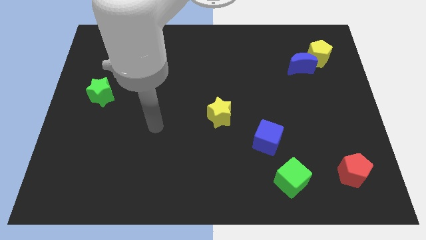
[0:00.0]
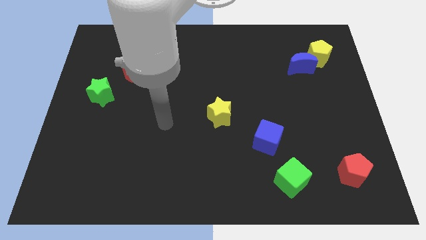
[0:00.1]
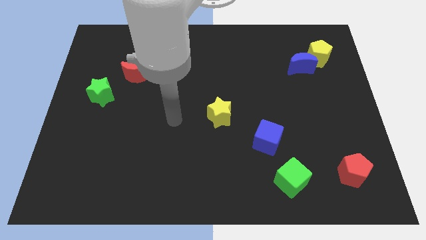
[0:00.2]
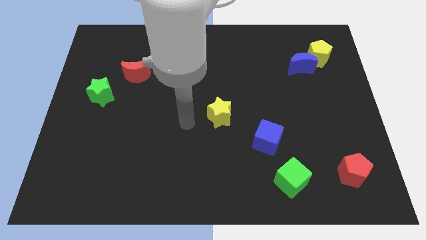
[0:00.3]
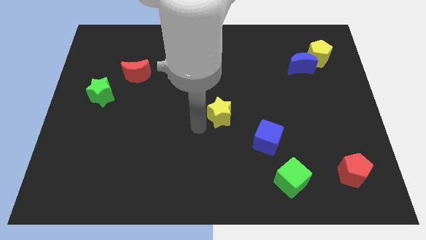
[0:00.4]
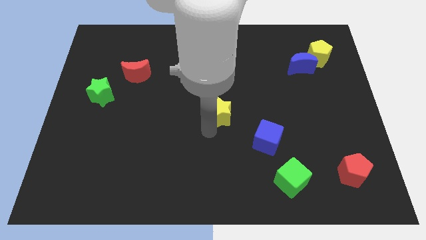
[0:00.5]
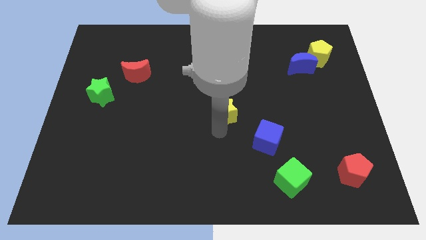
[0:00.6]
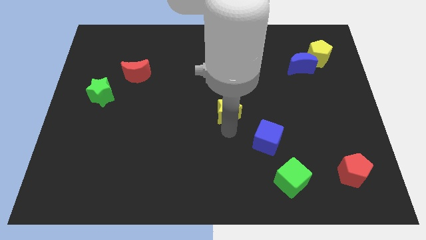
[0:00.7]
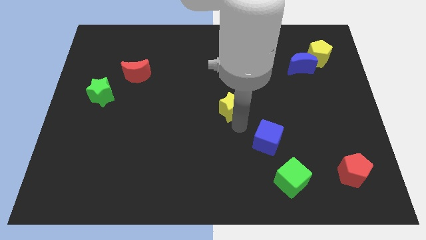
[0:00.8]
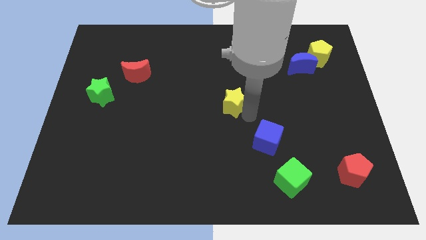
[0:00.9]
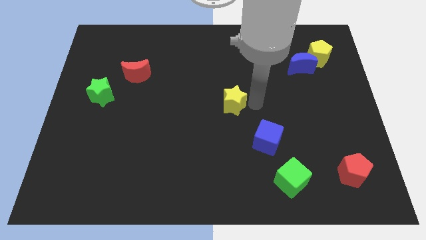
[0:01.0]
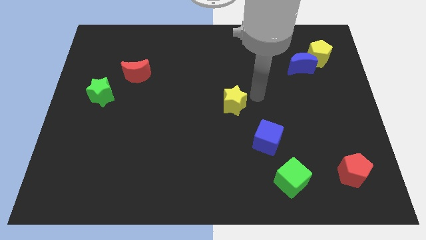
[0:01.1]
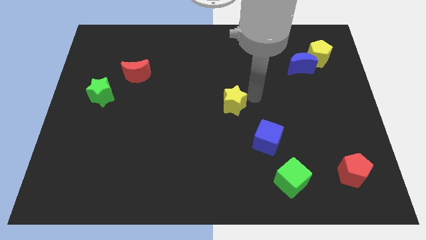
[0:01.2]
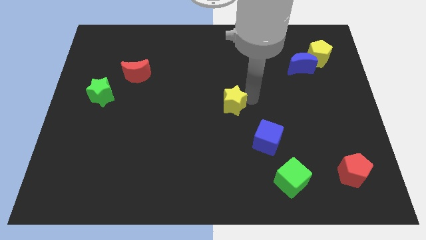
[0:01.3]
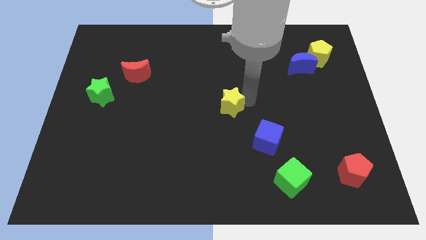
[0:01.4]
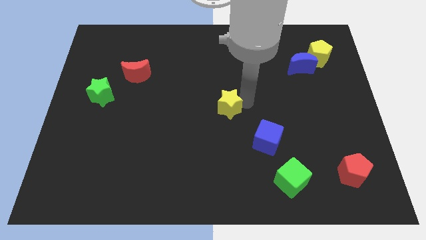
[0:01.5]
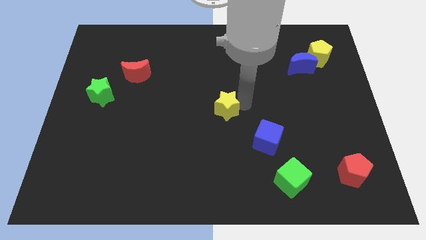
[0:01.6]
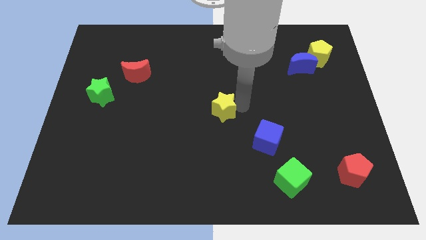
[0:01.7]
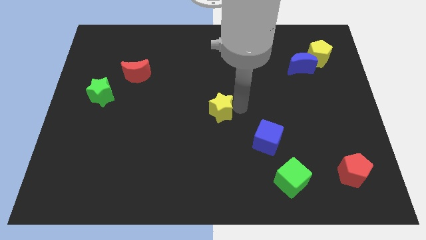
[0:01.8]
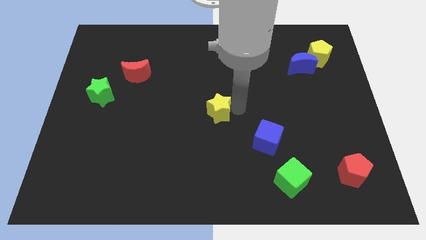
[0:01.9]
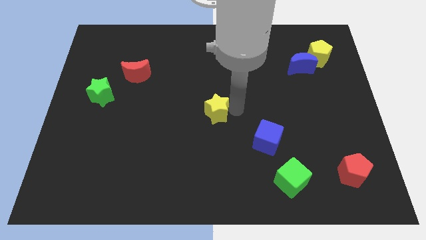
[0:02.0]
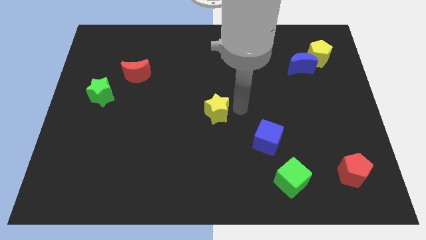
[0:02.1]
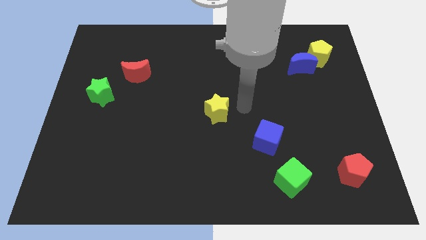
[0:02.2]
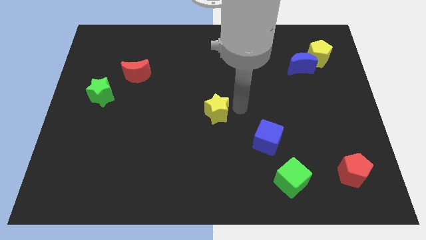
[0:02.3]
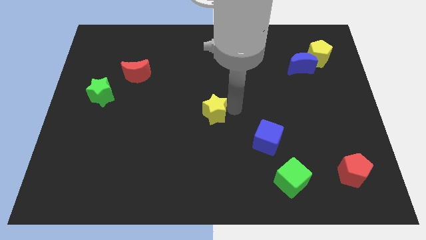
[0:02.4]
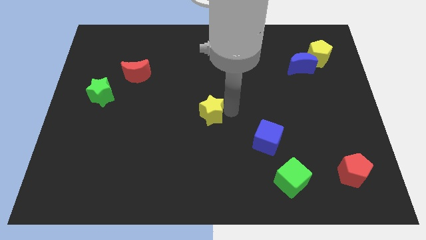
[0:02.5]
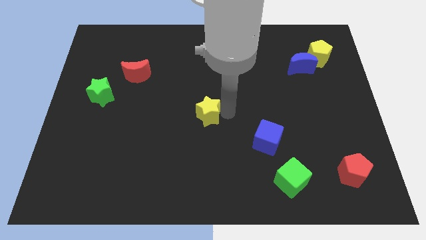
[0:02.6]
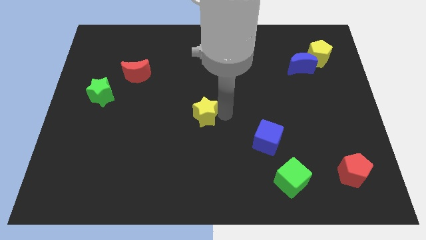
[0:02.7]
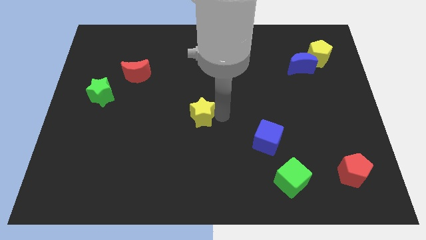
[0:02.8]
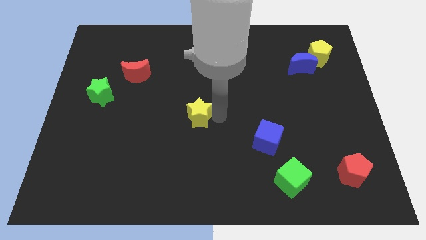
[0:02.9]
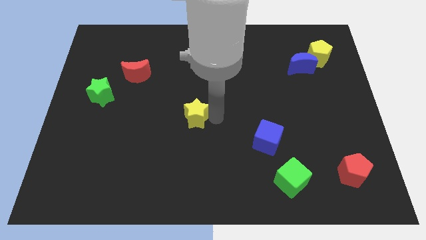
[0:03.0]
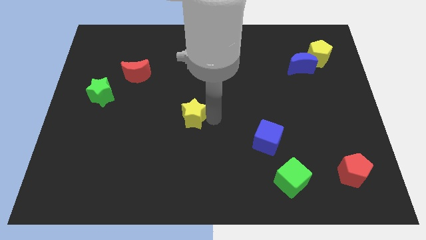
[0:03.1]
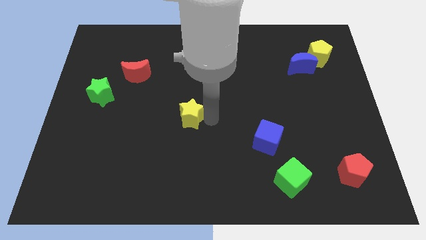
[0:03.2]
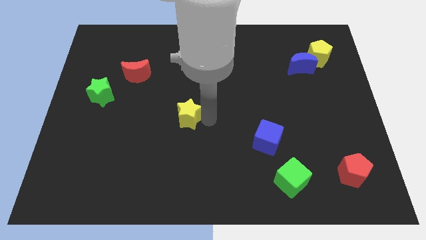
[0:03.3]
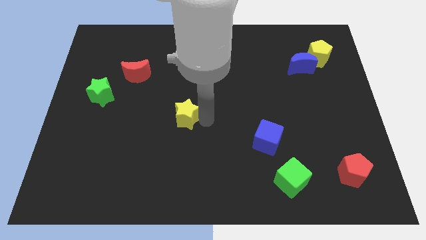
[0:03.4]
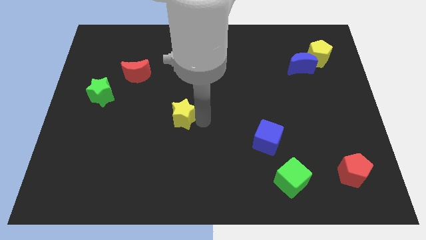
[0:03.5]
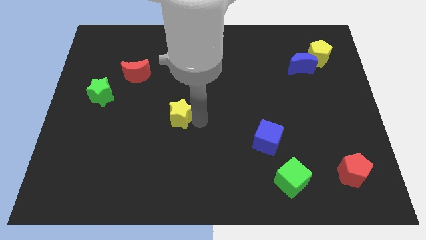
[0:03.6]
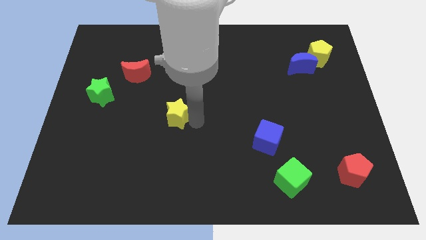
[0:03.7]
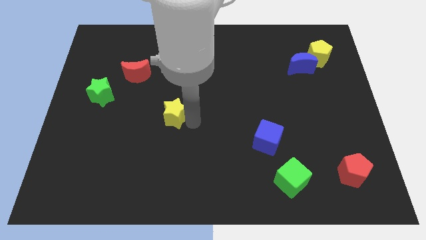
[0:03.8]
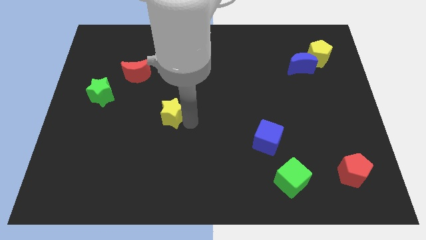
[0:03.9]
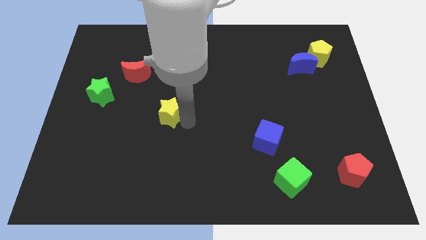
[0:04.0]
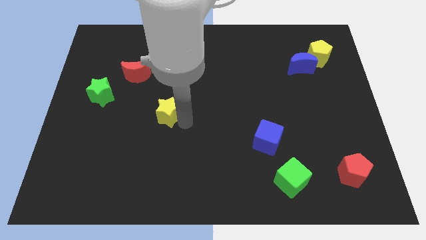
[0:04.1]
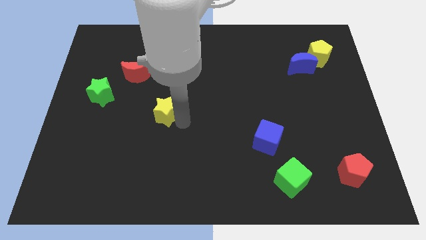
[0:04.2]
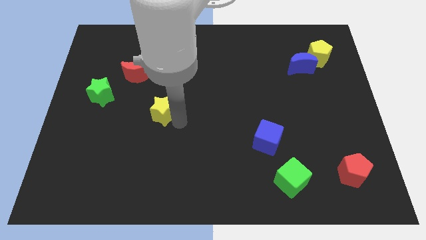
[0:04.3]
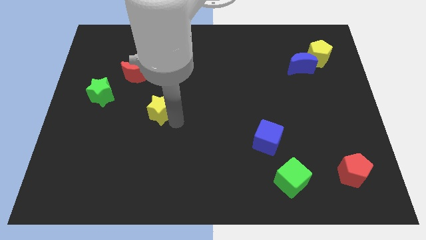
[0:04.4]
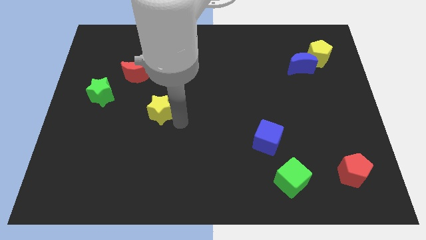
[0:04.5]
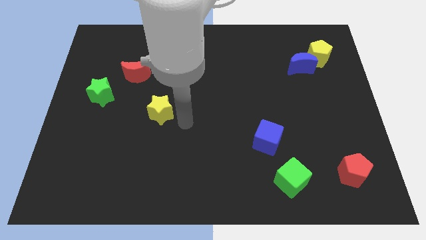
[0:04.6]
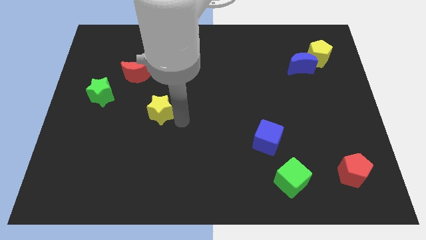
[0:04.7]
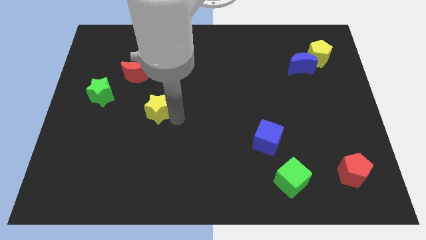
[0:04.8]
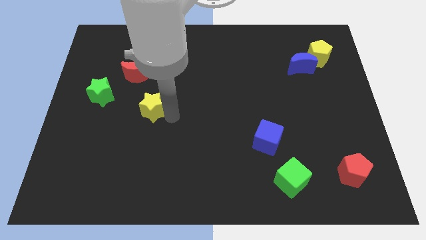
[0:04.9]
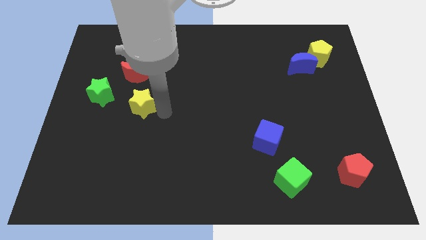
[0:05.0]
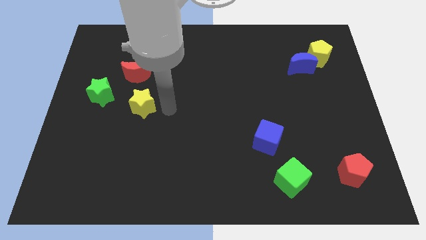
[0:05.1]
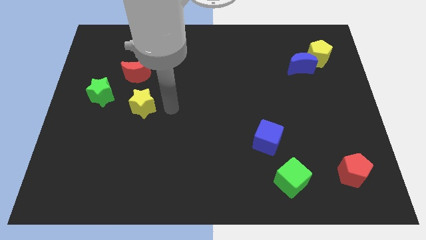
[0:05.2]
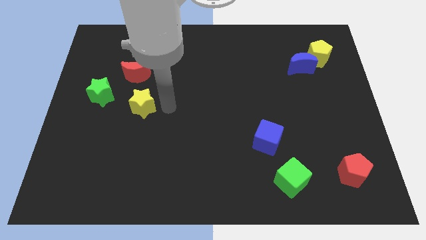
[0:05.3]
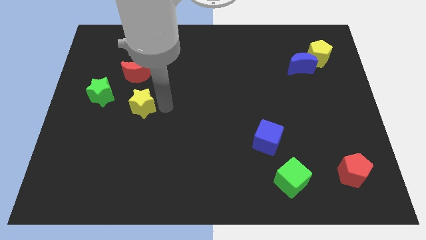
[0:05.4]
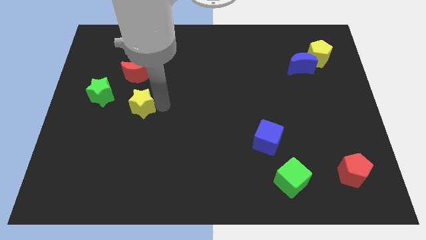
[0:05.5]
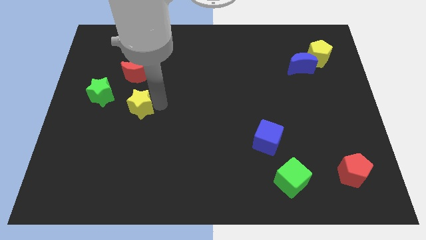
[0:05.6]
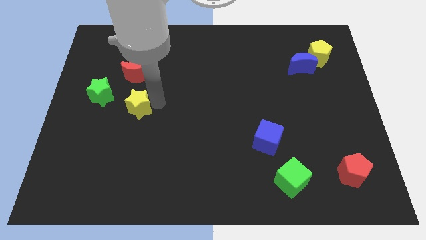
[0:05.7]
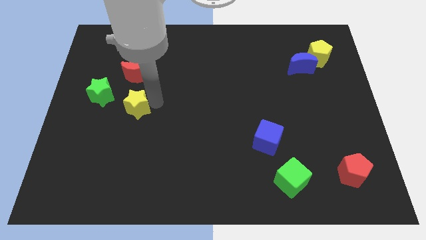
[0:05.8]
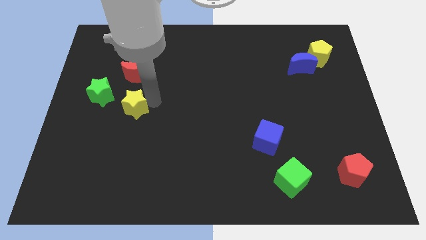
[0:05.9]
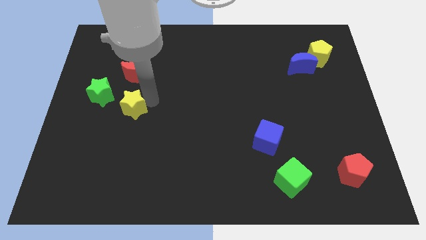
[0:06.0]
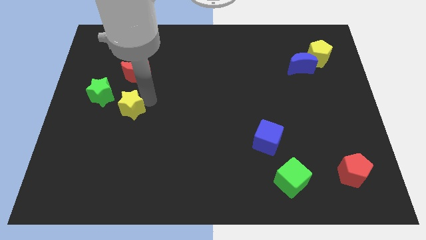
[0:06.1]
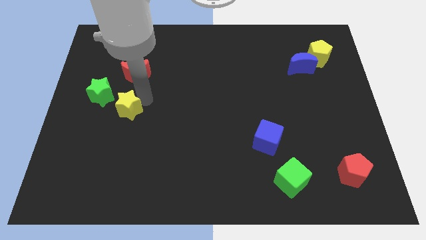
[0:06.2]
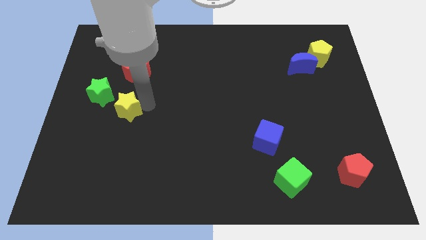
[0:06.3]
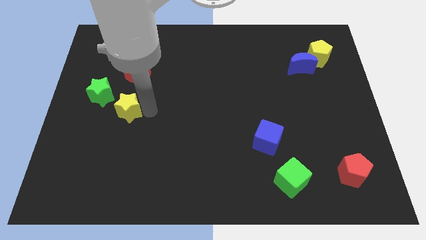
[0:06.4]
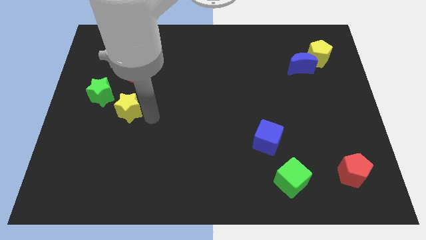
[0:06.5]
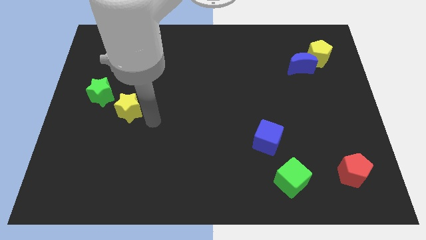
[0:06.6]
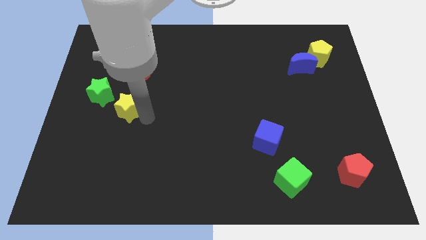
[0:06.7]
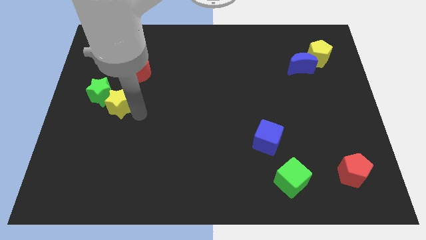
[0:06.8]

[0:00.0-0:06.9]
put the yellow star towards the green star
